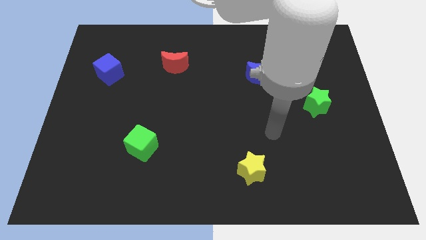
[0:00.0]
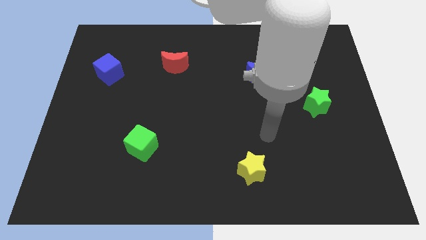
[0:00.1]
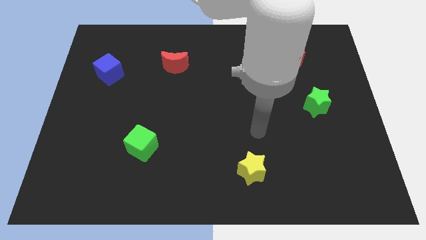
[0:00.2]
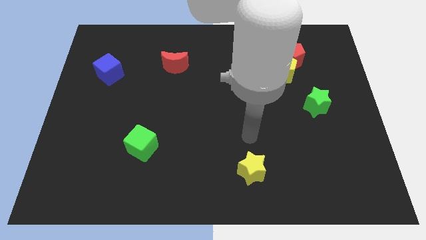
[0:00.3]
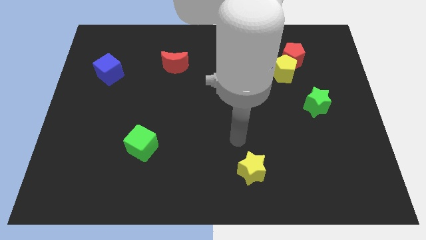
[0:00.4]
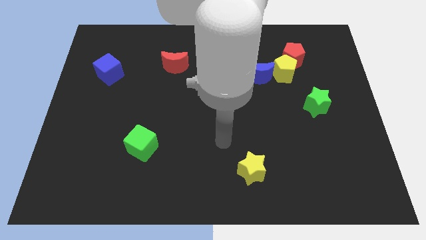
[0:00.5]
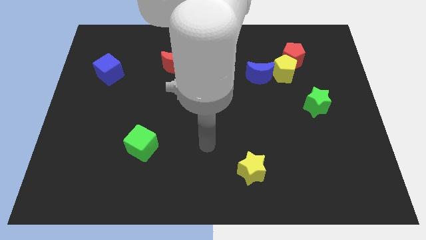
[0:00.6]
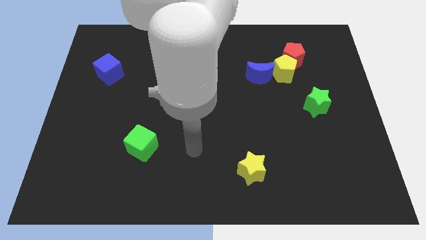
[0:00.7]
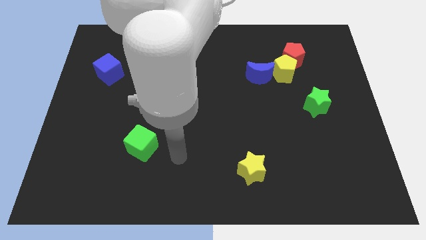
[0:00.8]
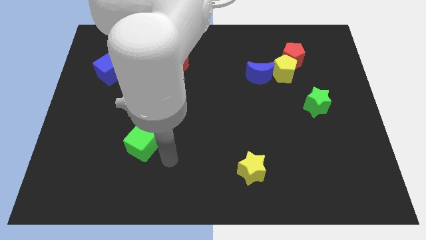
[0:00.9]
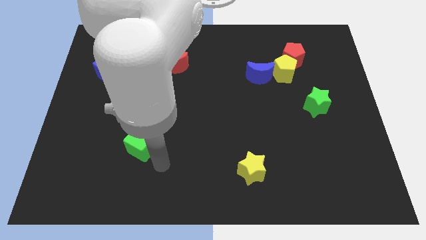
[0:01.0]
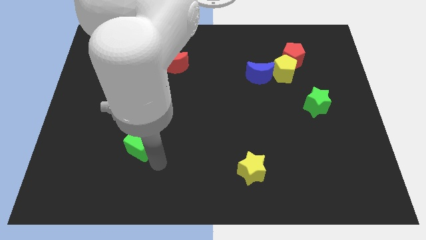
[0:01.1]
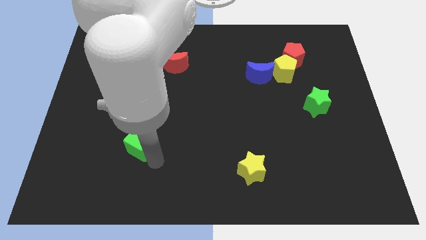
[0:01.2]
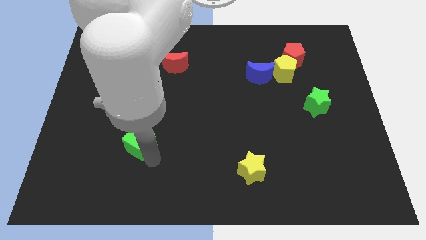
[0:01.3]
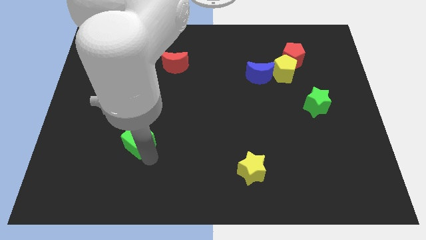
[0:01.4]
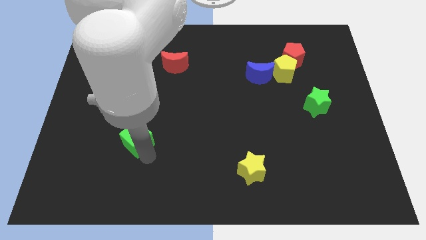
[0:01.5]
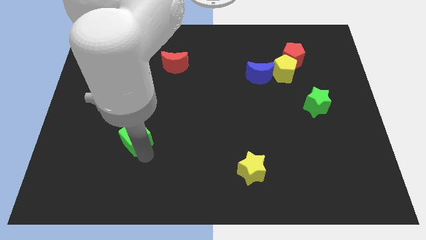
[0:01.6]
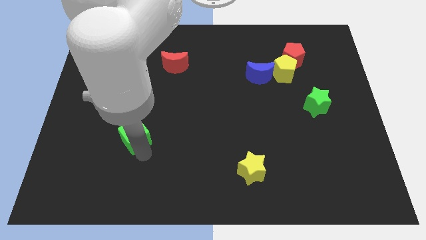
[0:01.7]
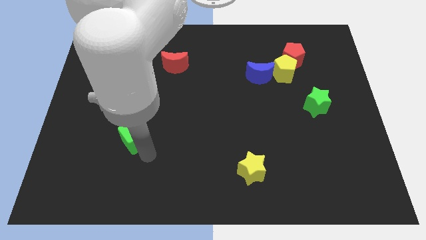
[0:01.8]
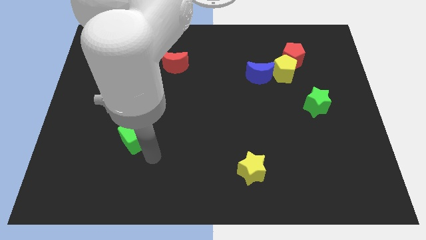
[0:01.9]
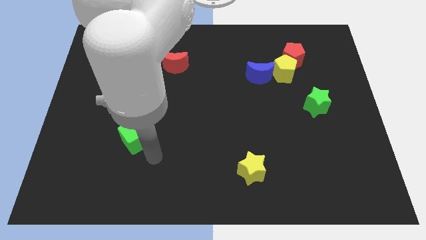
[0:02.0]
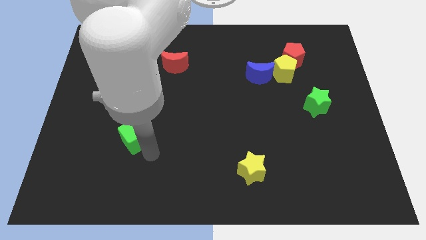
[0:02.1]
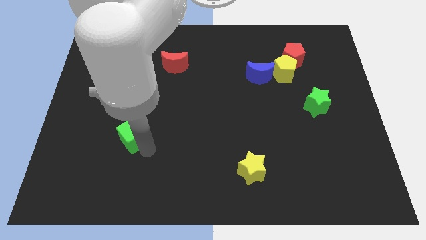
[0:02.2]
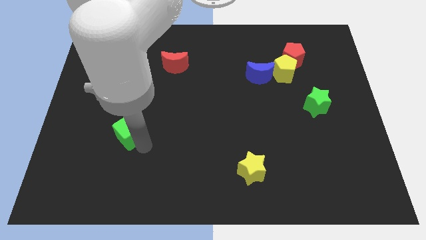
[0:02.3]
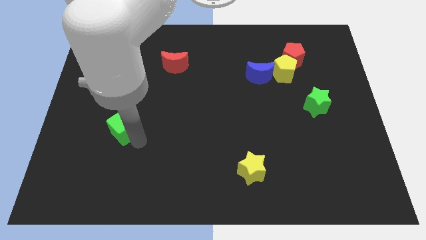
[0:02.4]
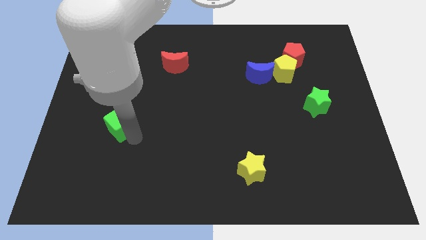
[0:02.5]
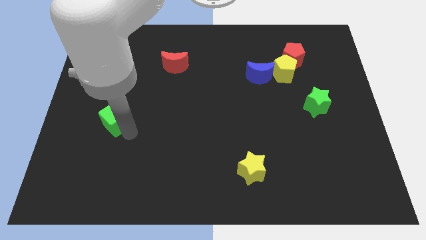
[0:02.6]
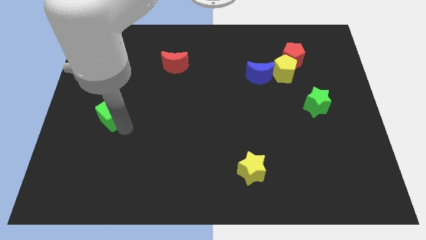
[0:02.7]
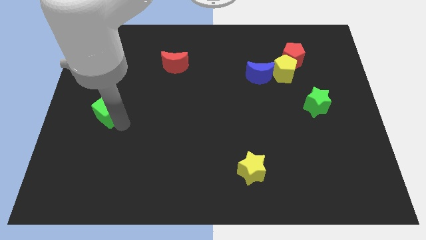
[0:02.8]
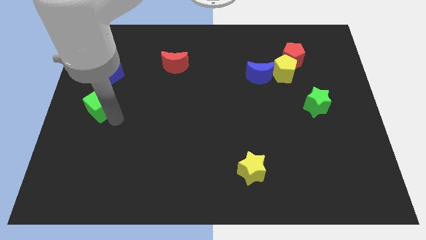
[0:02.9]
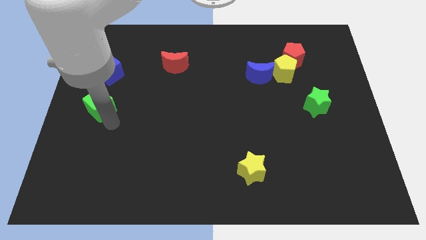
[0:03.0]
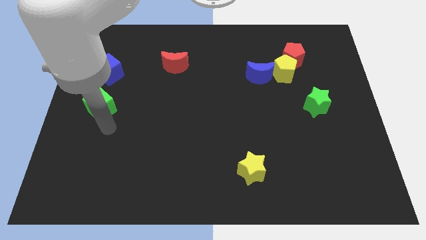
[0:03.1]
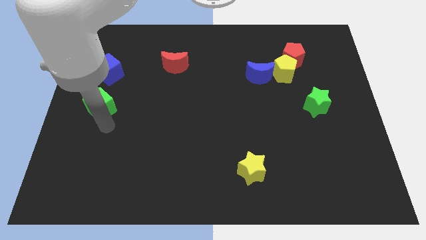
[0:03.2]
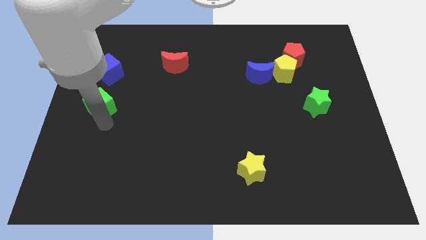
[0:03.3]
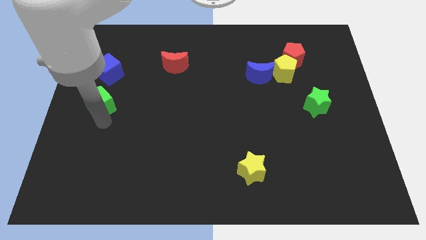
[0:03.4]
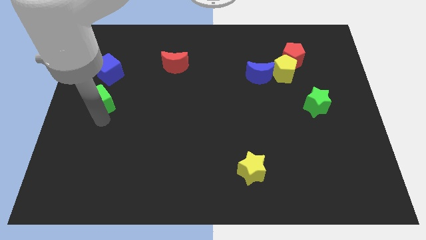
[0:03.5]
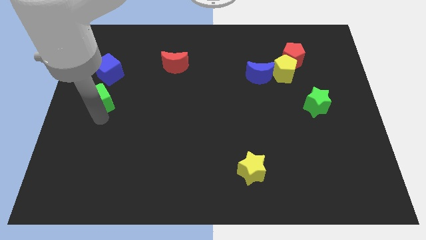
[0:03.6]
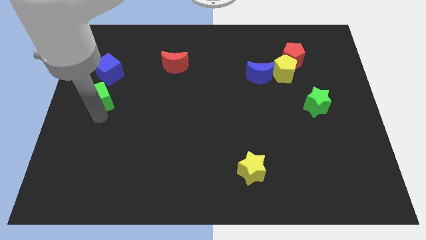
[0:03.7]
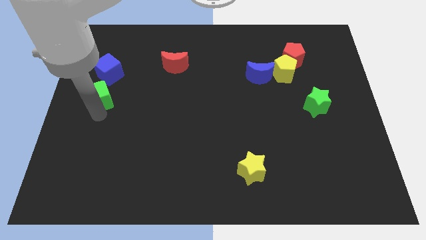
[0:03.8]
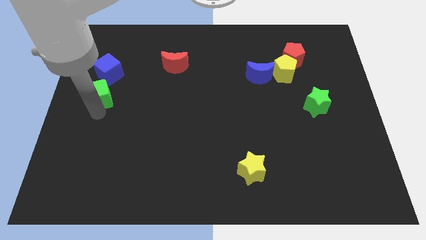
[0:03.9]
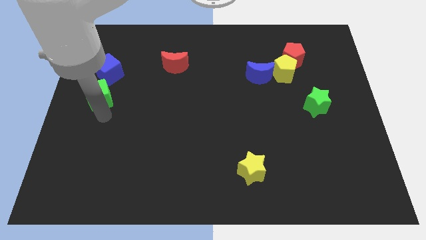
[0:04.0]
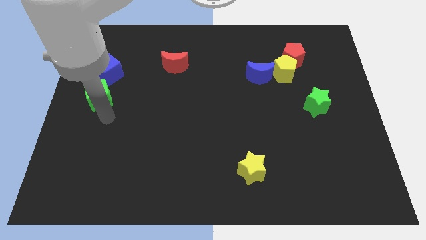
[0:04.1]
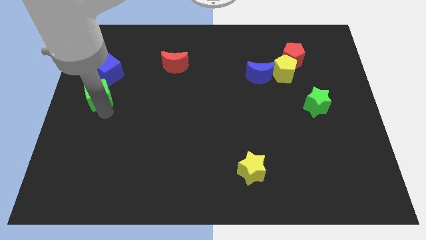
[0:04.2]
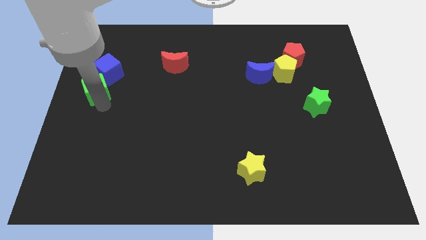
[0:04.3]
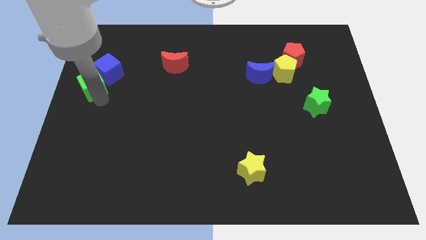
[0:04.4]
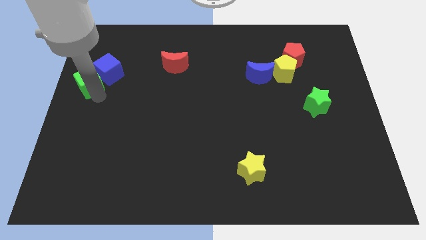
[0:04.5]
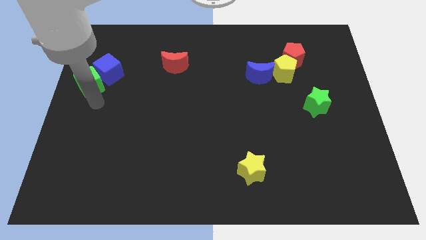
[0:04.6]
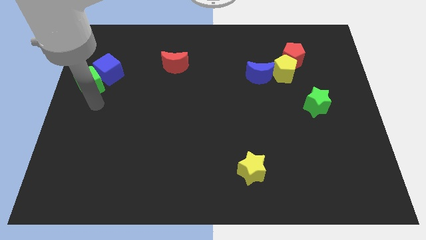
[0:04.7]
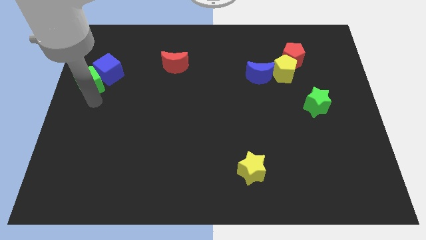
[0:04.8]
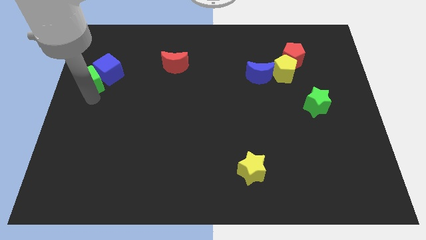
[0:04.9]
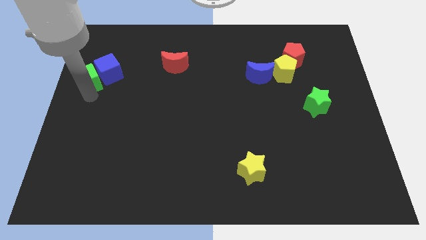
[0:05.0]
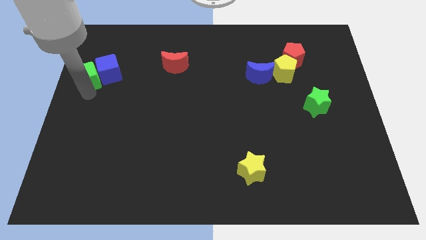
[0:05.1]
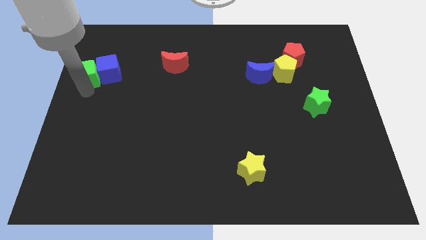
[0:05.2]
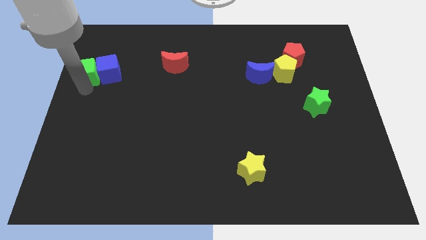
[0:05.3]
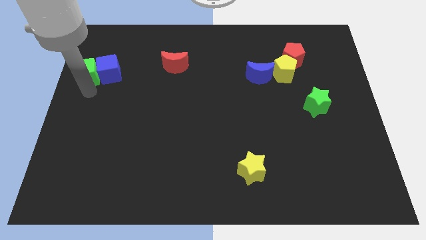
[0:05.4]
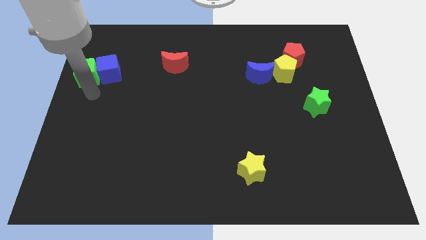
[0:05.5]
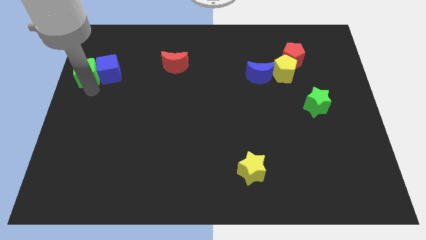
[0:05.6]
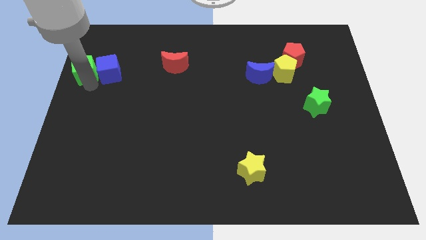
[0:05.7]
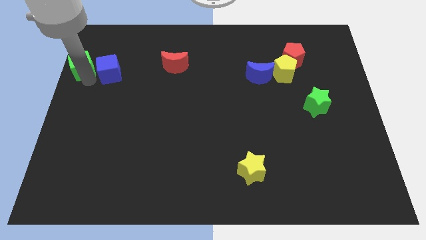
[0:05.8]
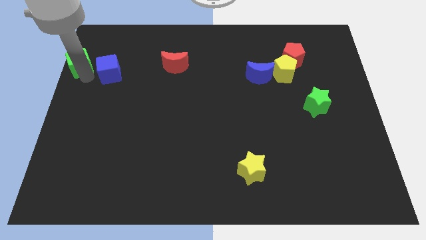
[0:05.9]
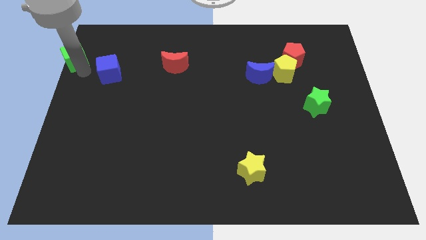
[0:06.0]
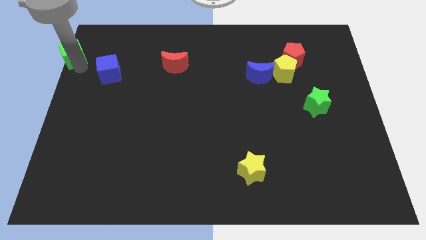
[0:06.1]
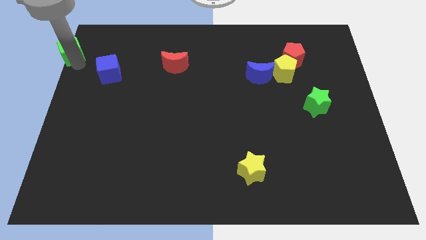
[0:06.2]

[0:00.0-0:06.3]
move the green cube to the top left corner
